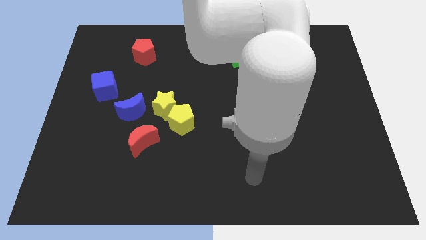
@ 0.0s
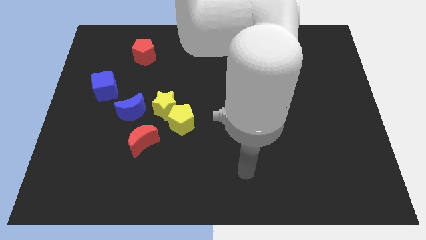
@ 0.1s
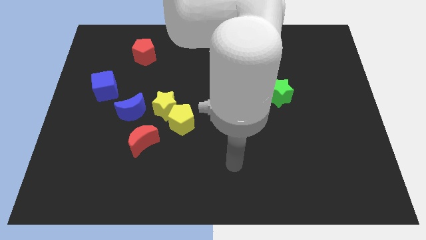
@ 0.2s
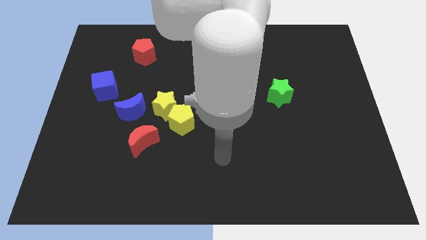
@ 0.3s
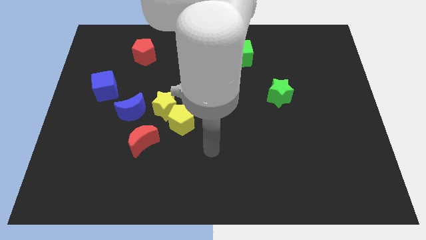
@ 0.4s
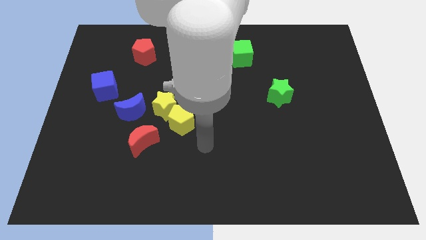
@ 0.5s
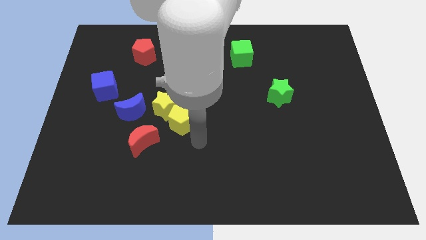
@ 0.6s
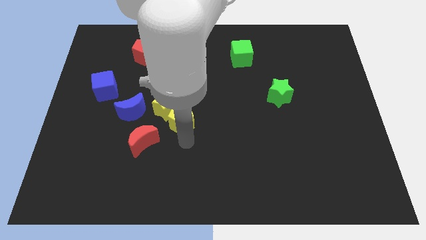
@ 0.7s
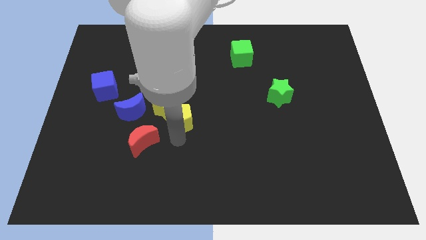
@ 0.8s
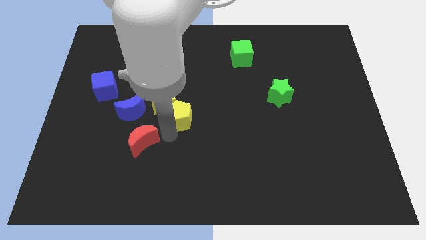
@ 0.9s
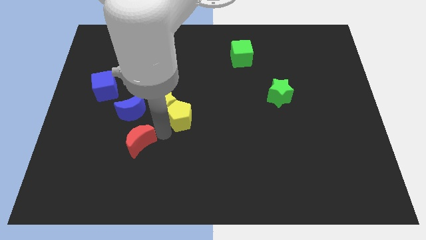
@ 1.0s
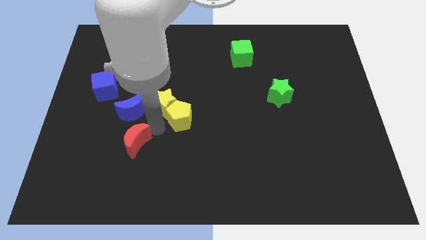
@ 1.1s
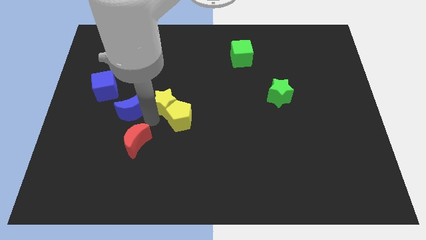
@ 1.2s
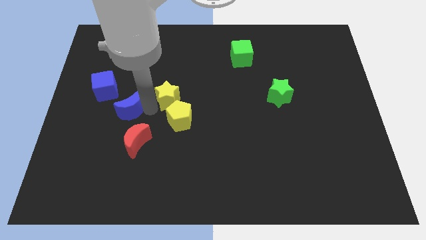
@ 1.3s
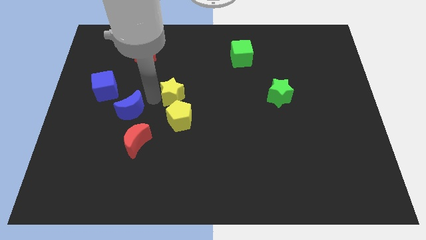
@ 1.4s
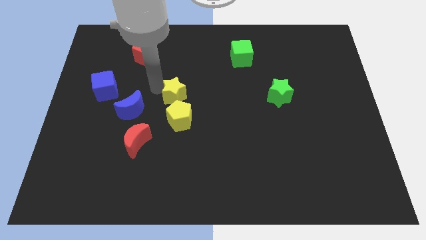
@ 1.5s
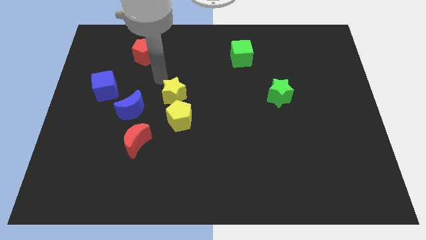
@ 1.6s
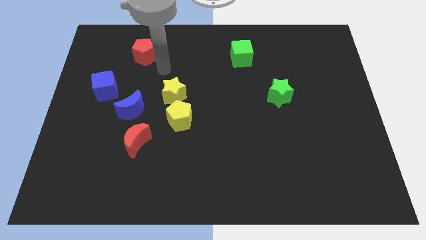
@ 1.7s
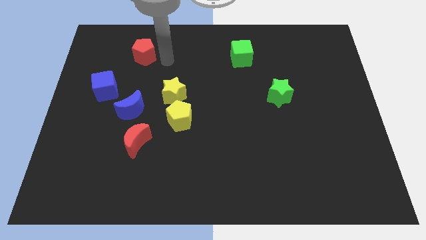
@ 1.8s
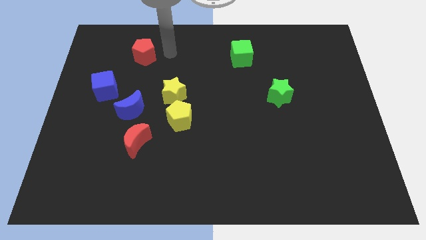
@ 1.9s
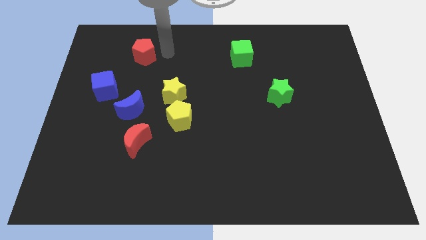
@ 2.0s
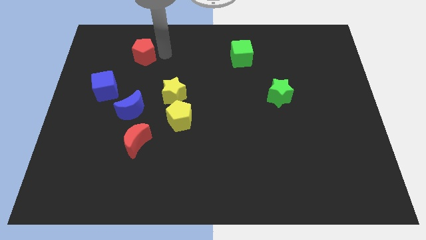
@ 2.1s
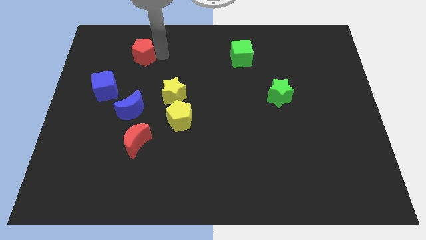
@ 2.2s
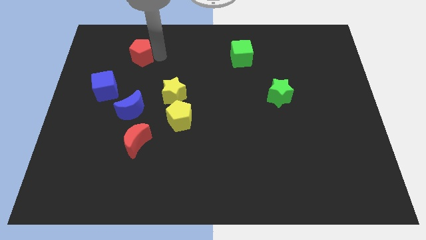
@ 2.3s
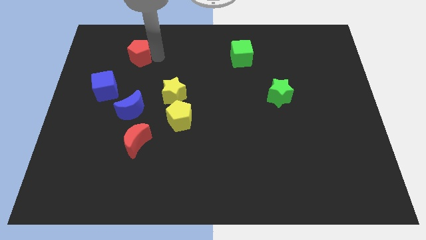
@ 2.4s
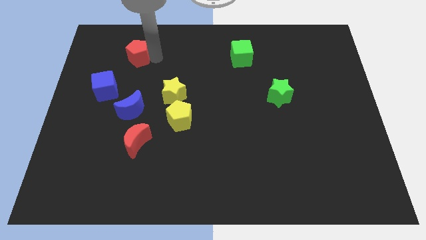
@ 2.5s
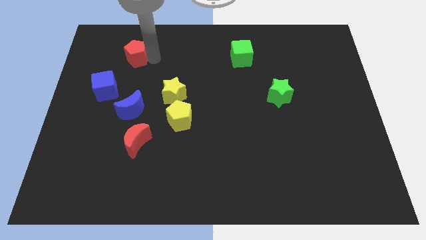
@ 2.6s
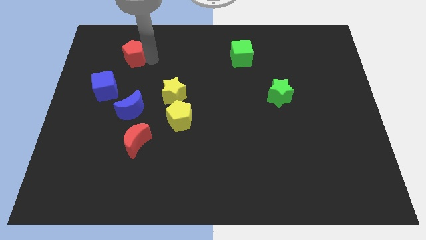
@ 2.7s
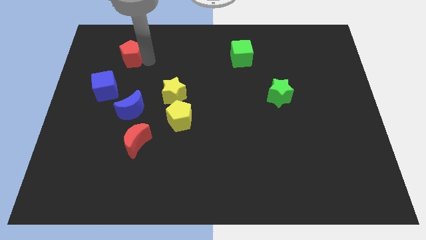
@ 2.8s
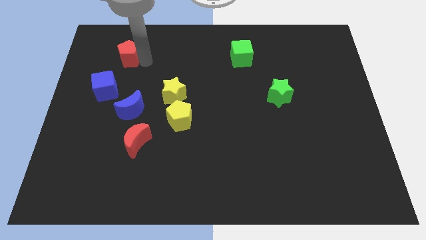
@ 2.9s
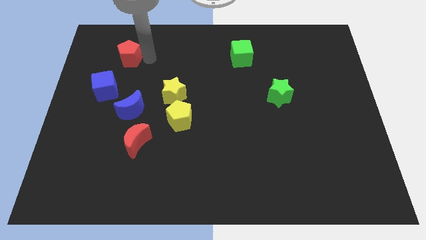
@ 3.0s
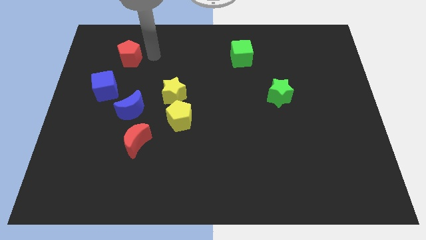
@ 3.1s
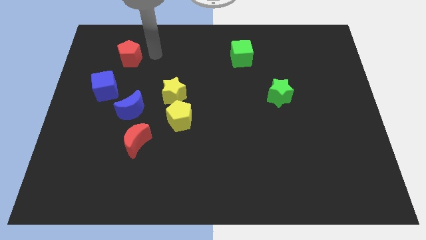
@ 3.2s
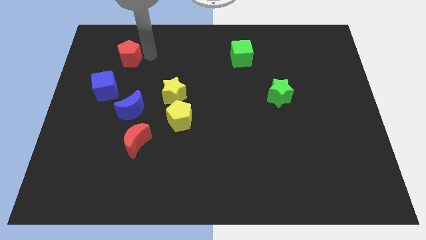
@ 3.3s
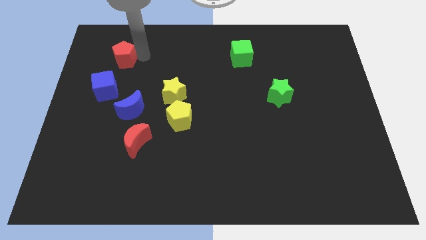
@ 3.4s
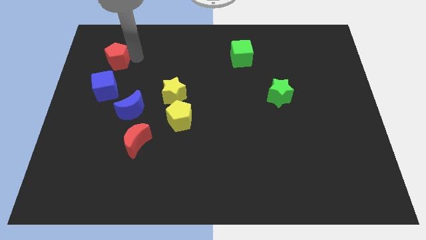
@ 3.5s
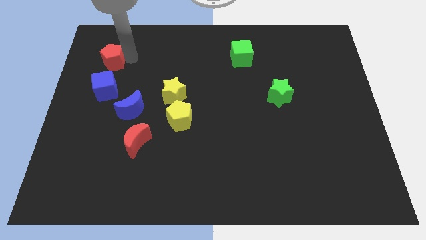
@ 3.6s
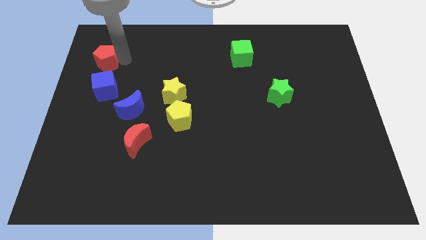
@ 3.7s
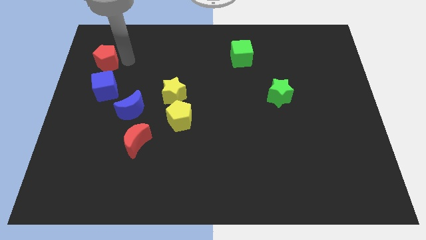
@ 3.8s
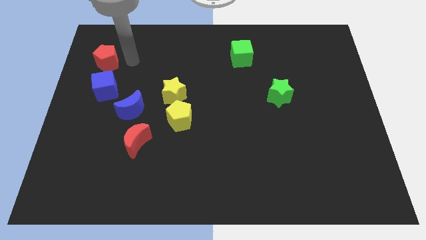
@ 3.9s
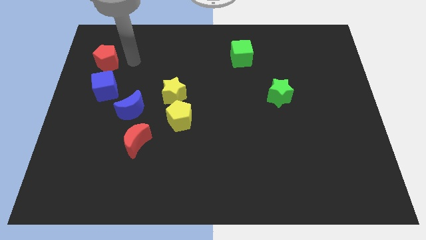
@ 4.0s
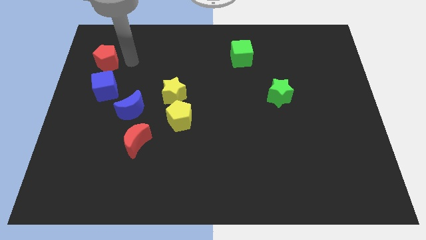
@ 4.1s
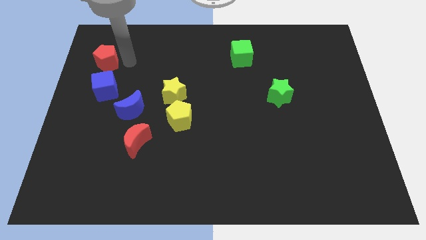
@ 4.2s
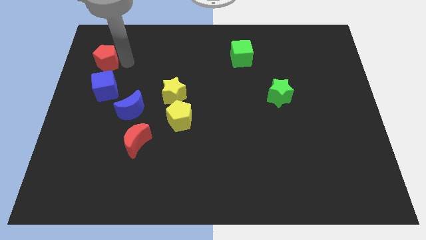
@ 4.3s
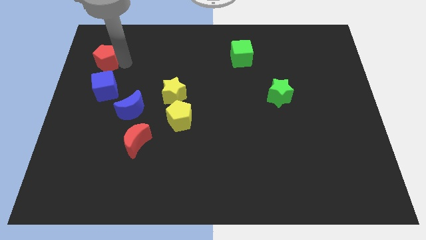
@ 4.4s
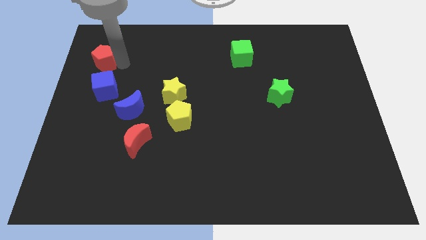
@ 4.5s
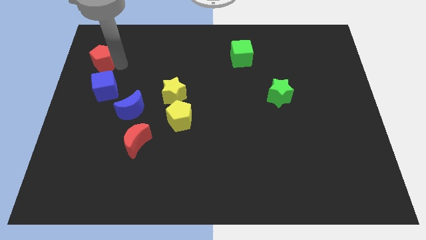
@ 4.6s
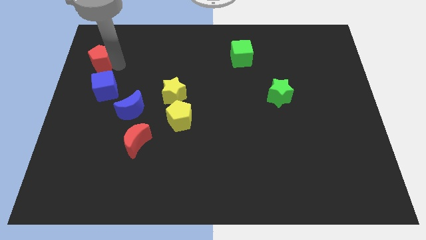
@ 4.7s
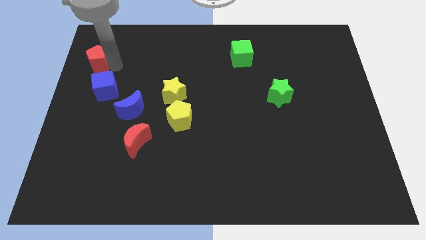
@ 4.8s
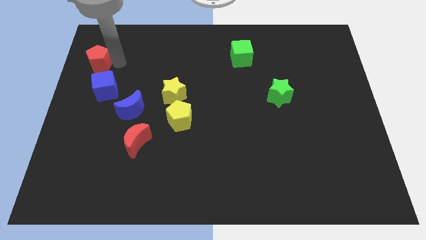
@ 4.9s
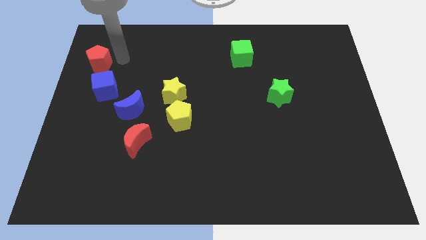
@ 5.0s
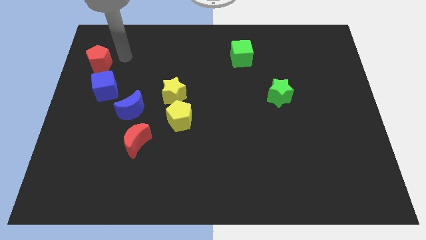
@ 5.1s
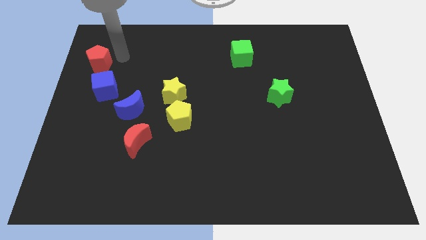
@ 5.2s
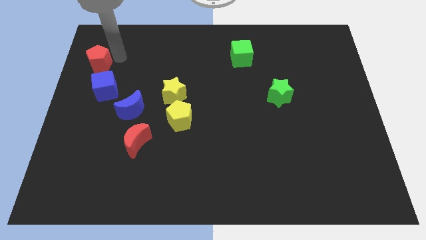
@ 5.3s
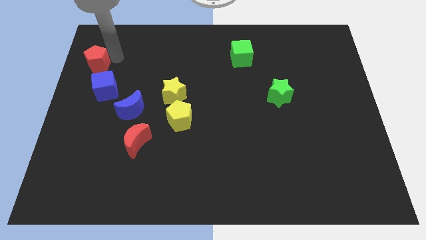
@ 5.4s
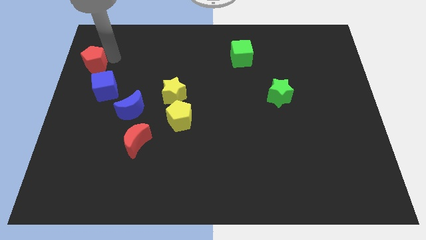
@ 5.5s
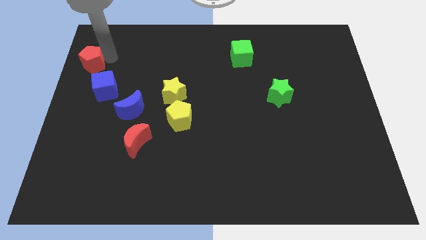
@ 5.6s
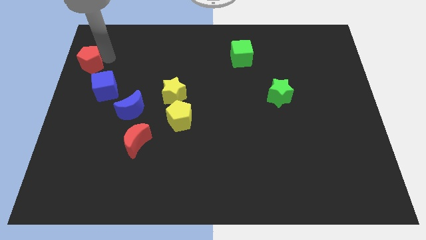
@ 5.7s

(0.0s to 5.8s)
put the red pentagon to the left side of the board

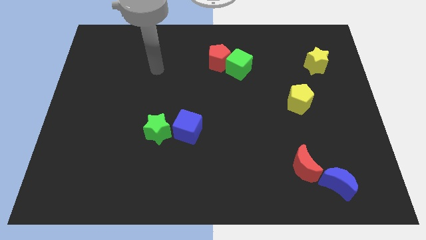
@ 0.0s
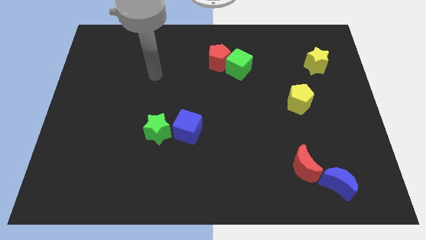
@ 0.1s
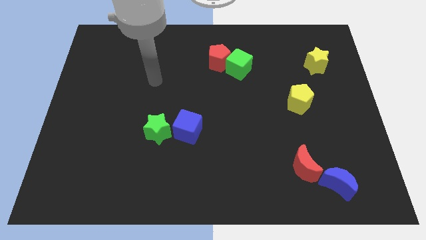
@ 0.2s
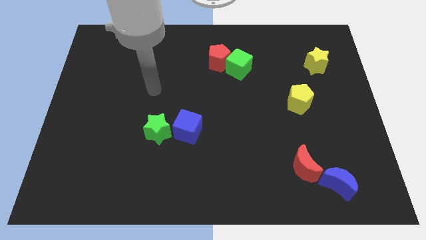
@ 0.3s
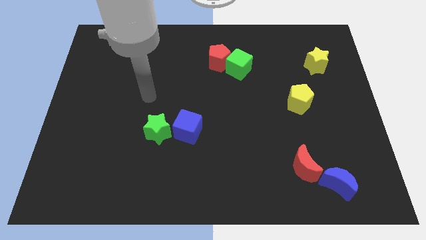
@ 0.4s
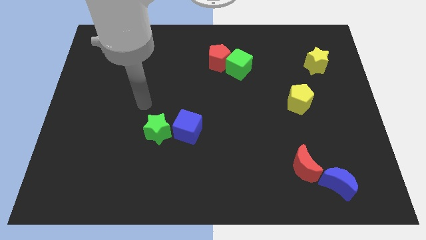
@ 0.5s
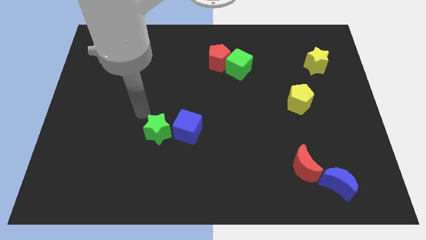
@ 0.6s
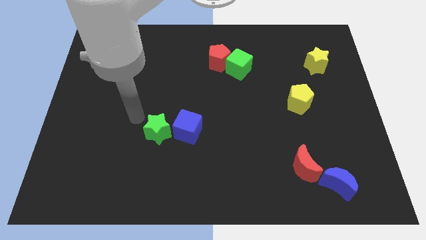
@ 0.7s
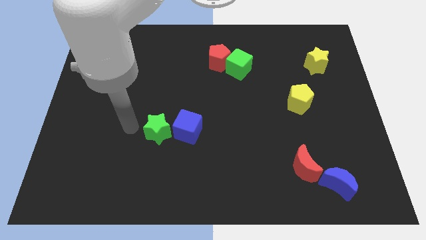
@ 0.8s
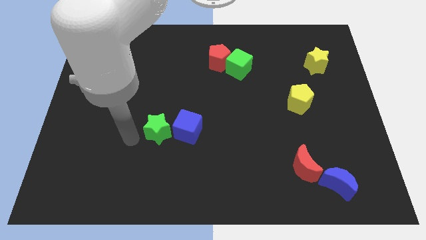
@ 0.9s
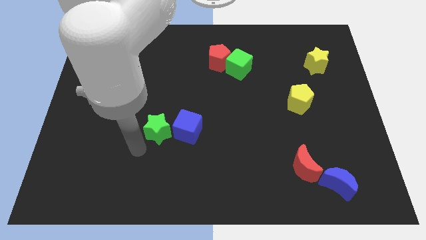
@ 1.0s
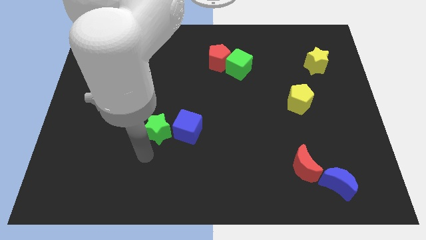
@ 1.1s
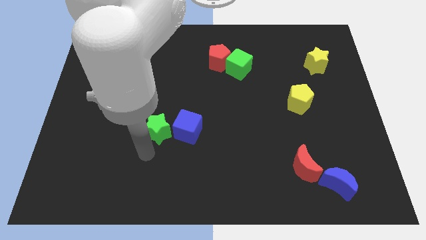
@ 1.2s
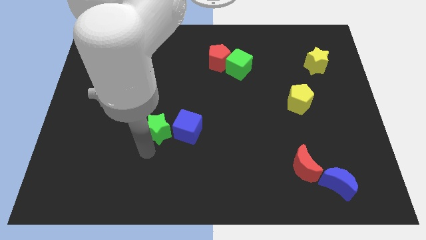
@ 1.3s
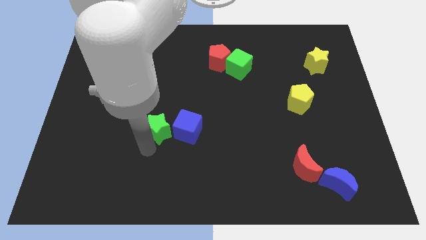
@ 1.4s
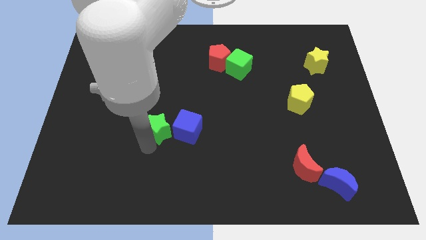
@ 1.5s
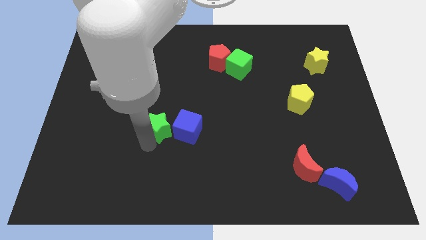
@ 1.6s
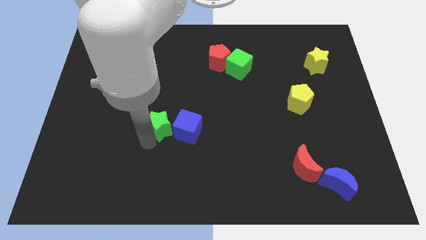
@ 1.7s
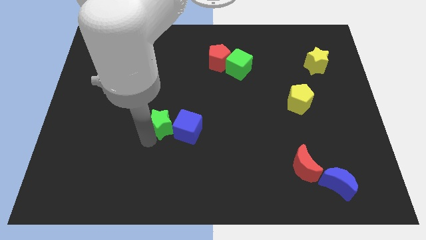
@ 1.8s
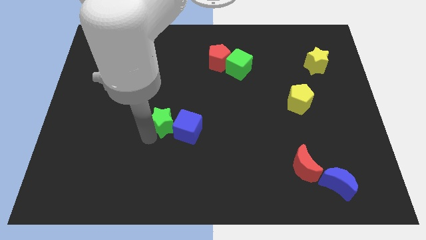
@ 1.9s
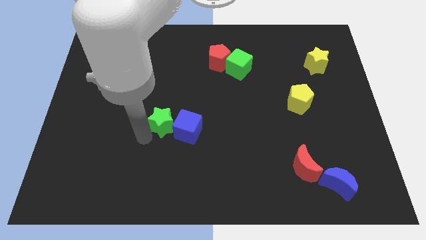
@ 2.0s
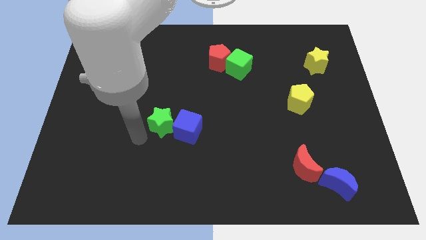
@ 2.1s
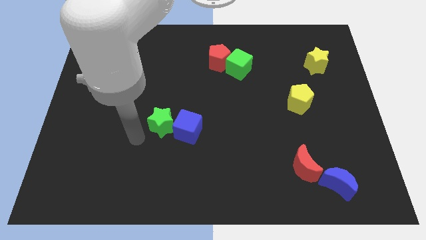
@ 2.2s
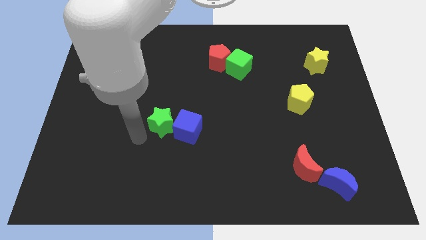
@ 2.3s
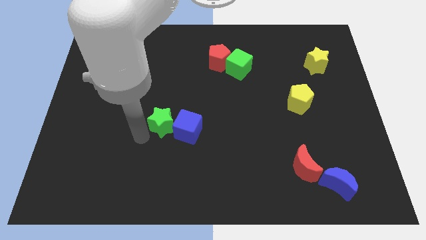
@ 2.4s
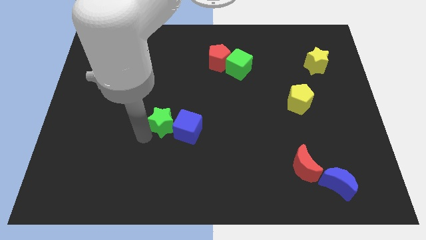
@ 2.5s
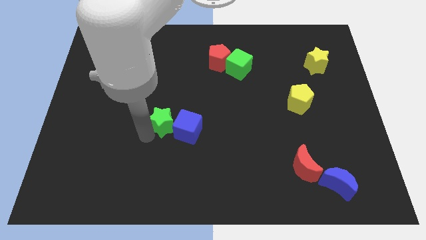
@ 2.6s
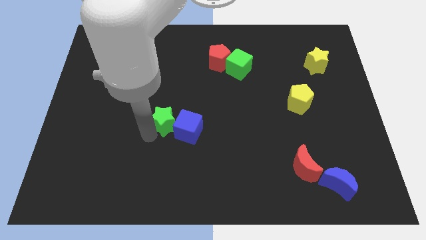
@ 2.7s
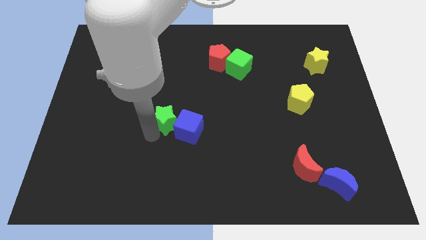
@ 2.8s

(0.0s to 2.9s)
move the green star to the center
